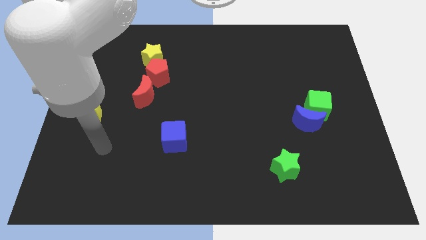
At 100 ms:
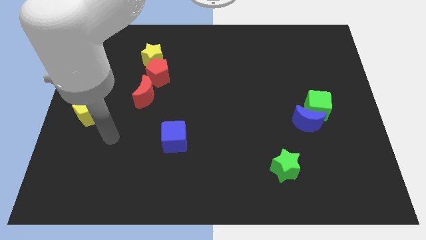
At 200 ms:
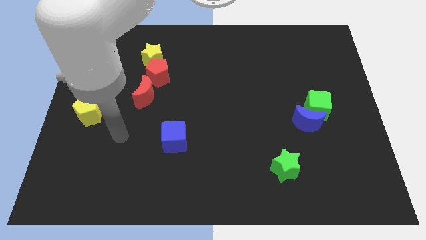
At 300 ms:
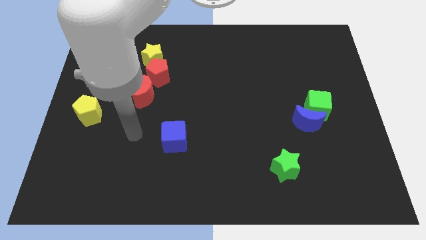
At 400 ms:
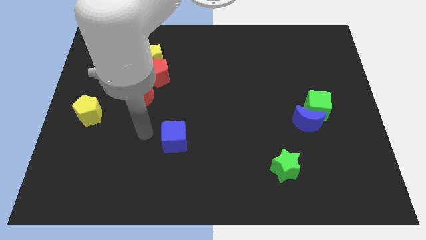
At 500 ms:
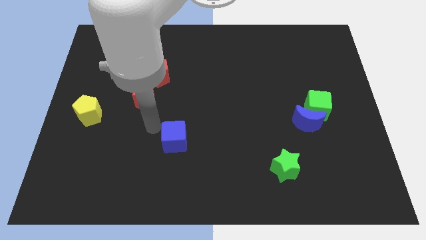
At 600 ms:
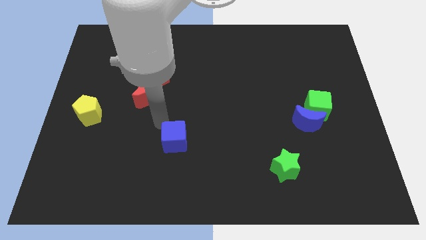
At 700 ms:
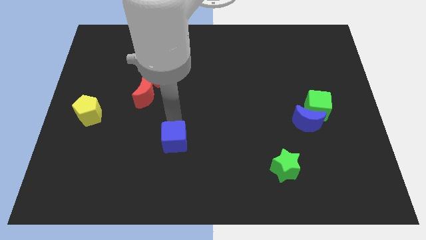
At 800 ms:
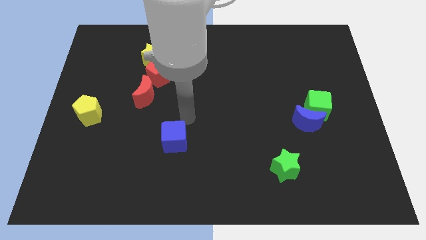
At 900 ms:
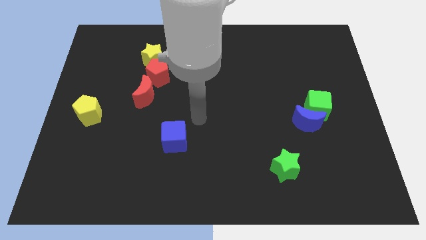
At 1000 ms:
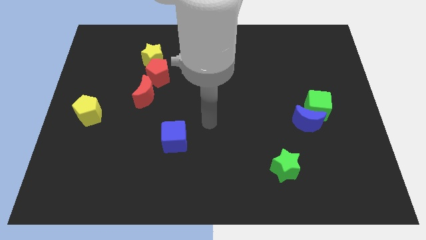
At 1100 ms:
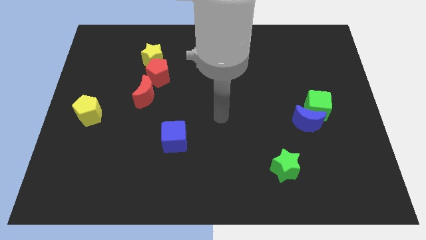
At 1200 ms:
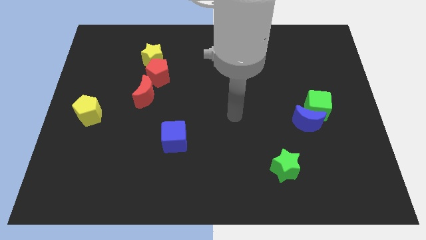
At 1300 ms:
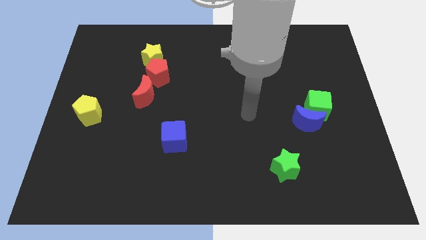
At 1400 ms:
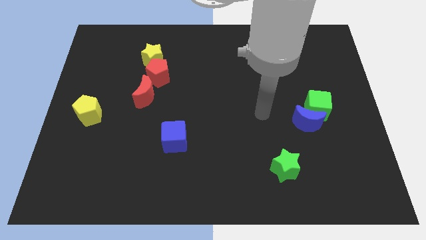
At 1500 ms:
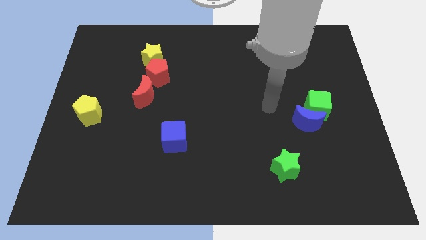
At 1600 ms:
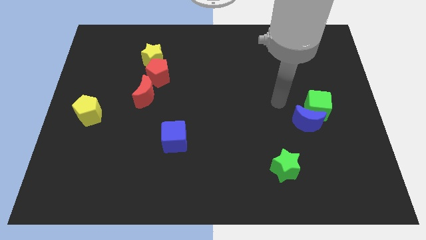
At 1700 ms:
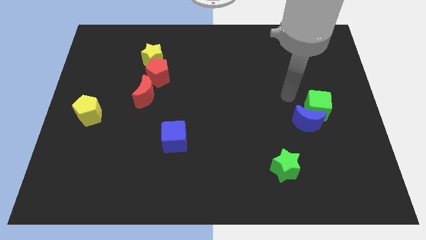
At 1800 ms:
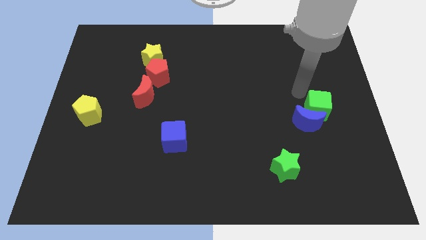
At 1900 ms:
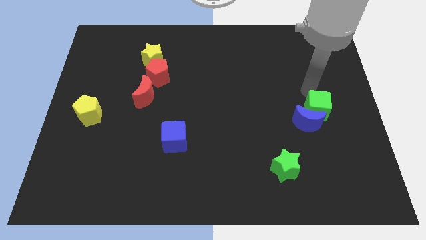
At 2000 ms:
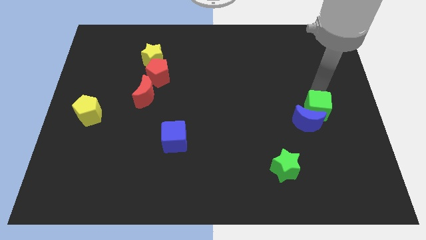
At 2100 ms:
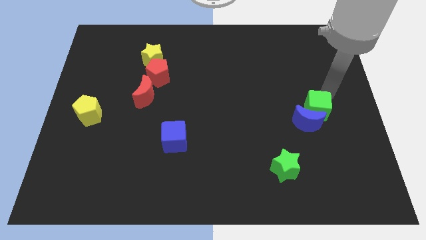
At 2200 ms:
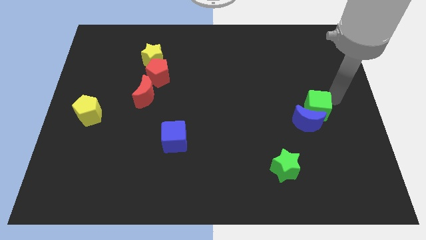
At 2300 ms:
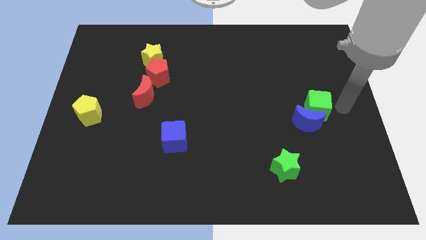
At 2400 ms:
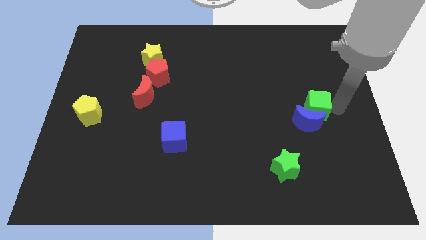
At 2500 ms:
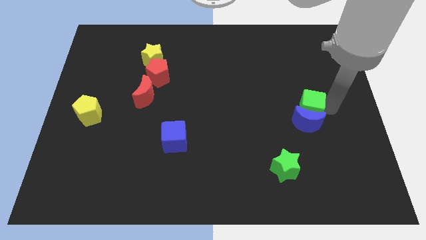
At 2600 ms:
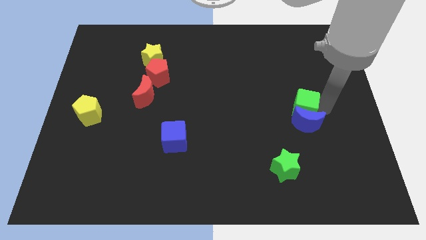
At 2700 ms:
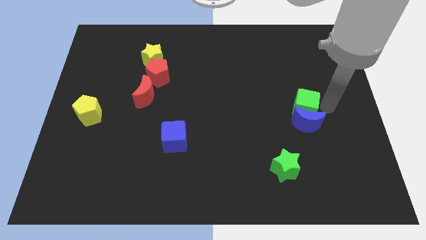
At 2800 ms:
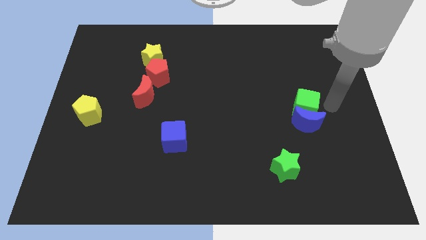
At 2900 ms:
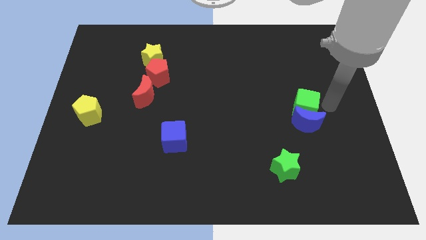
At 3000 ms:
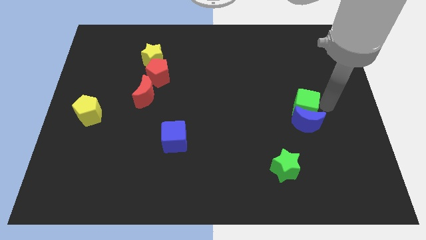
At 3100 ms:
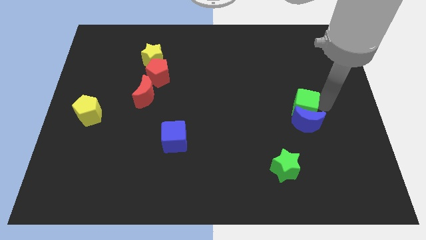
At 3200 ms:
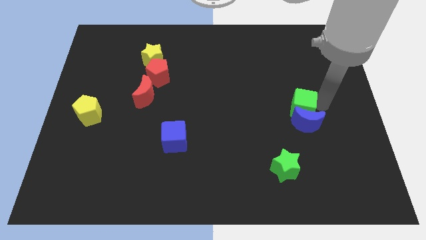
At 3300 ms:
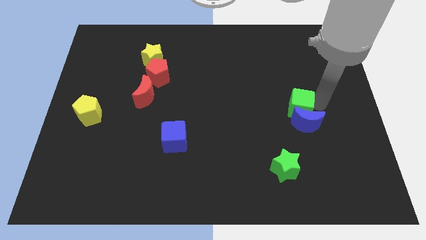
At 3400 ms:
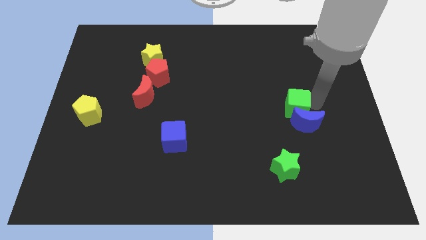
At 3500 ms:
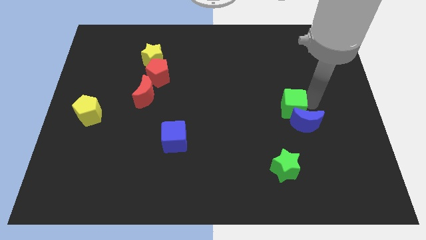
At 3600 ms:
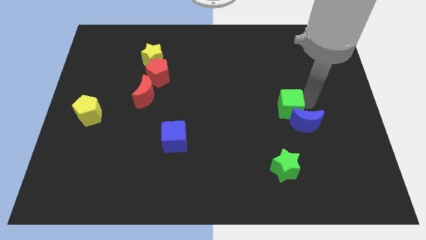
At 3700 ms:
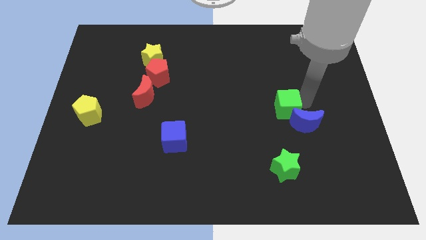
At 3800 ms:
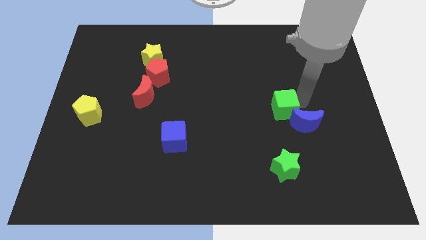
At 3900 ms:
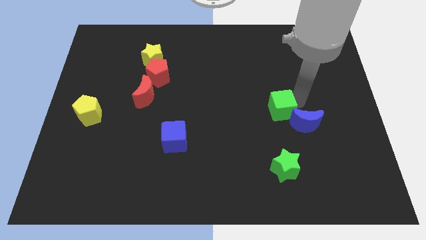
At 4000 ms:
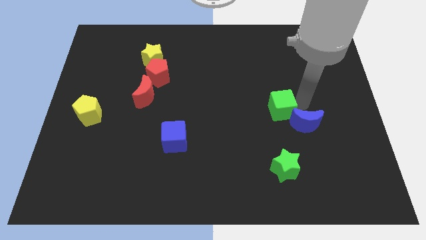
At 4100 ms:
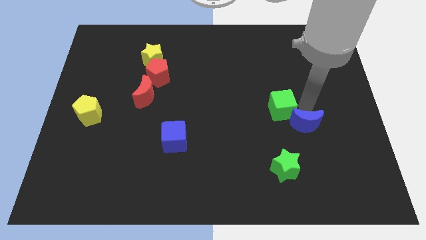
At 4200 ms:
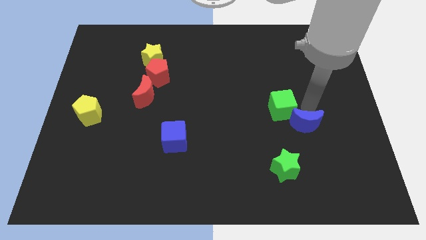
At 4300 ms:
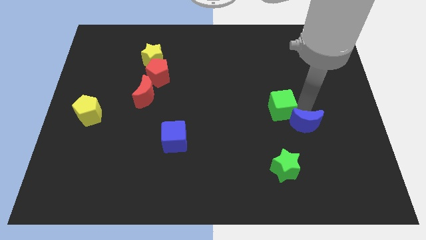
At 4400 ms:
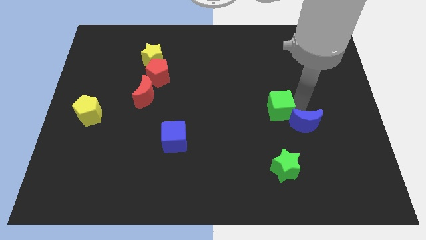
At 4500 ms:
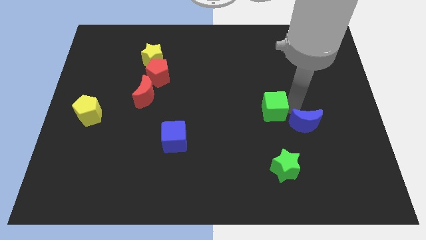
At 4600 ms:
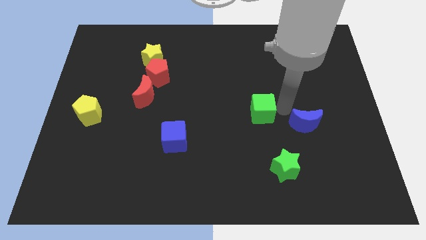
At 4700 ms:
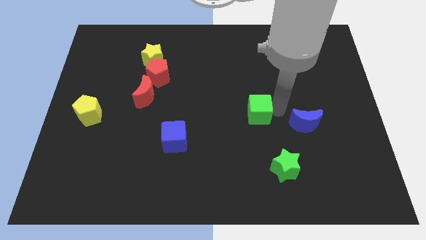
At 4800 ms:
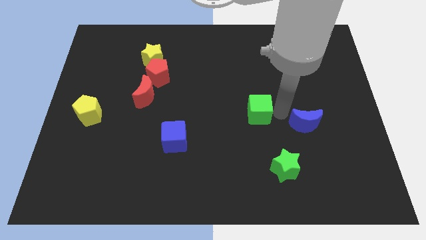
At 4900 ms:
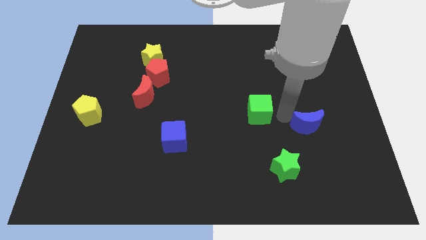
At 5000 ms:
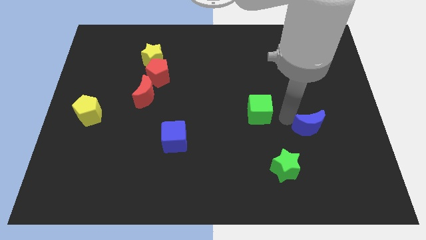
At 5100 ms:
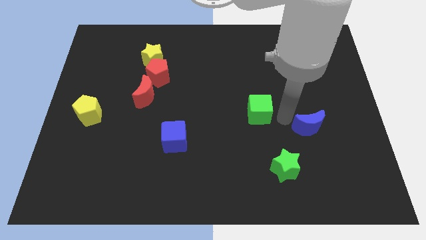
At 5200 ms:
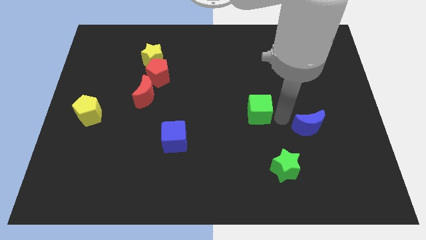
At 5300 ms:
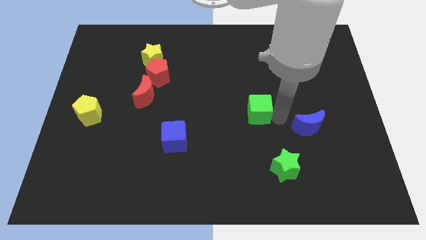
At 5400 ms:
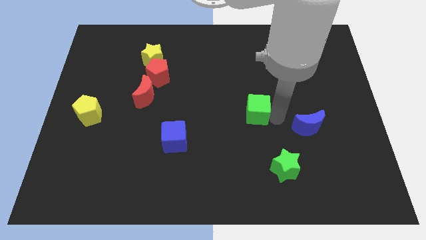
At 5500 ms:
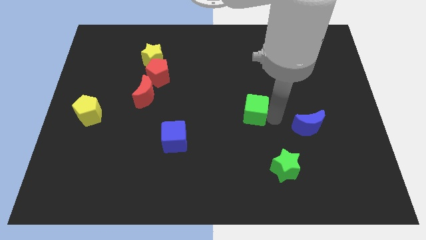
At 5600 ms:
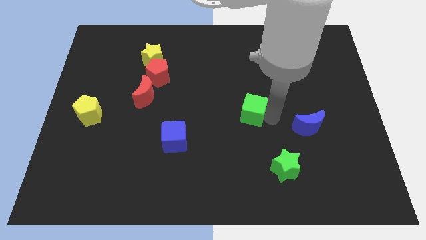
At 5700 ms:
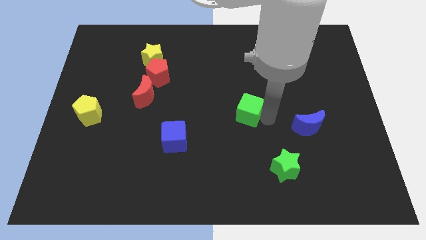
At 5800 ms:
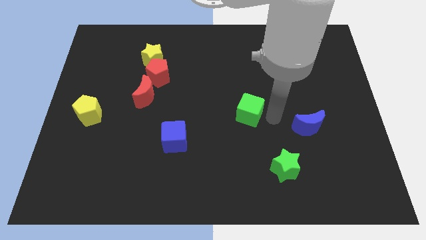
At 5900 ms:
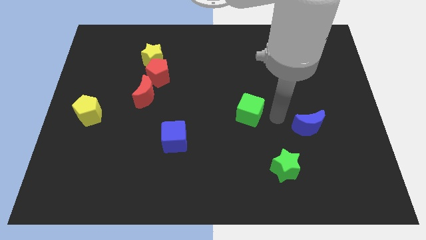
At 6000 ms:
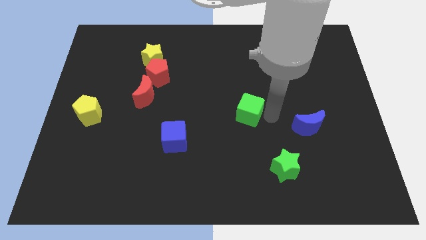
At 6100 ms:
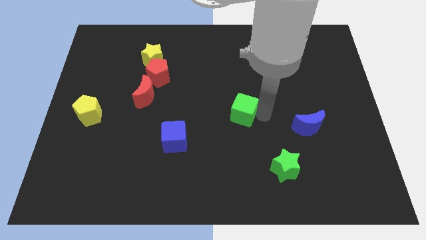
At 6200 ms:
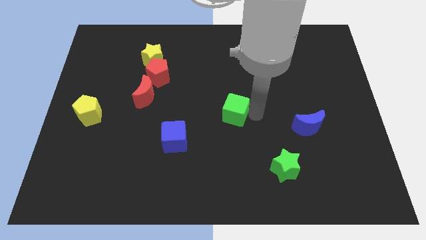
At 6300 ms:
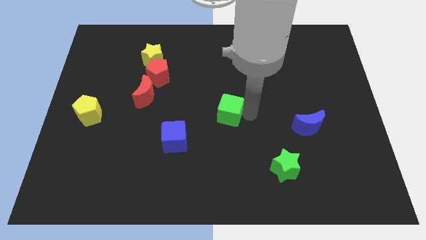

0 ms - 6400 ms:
move the green cube to the left

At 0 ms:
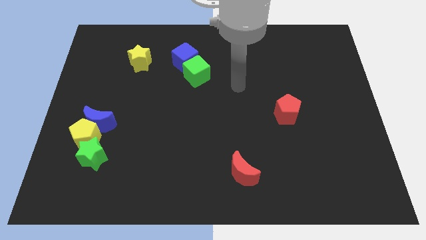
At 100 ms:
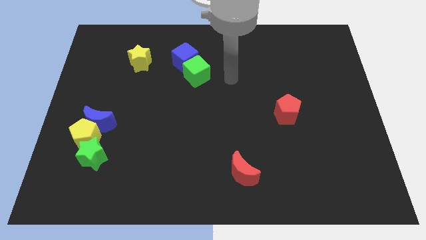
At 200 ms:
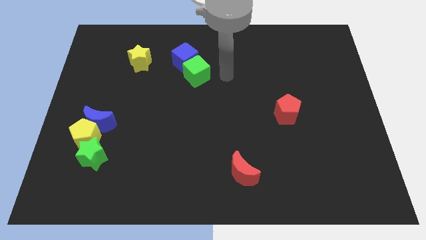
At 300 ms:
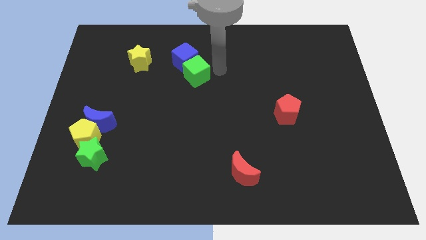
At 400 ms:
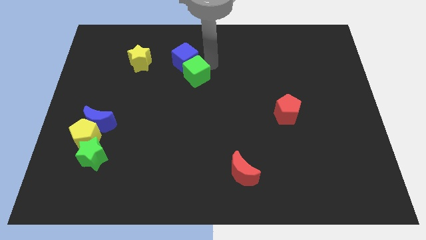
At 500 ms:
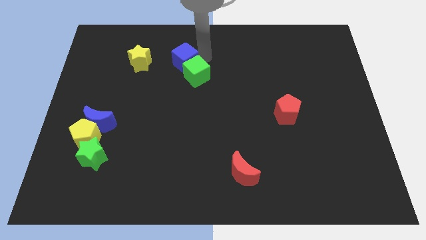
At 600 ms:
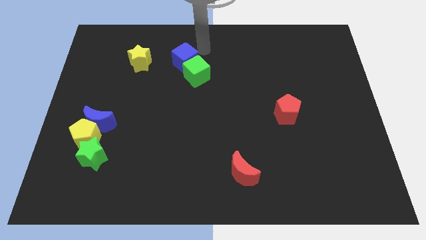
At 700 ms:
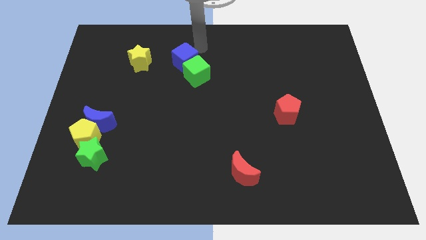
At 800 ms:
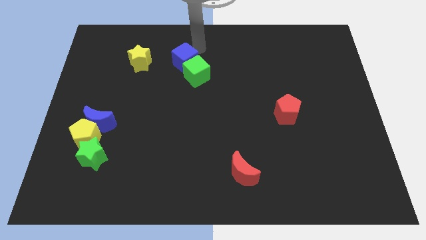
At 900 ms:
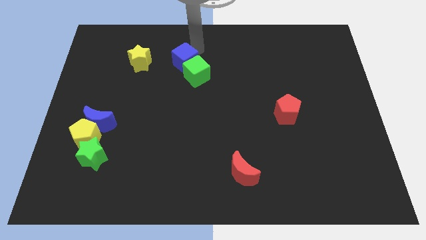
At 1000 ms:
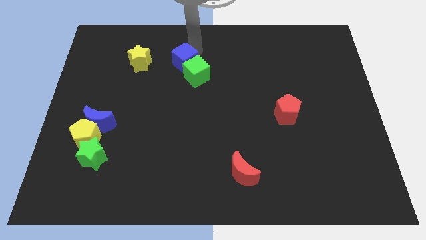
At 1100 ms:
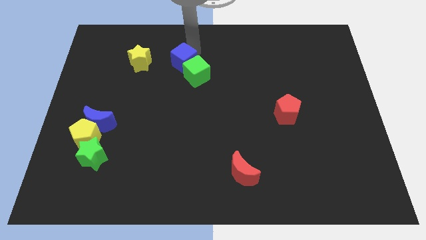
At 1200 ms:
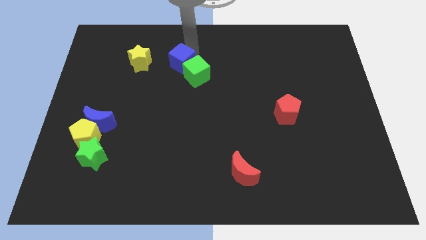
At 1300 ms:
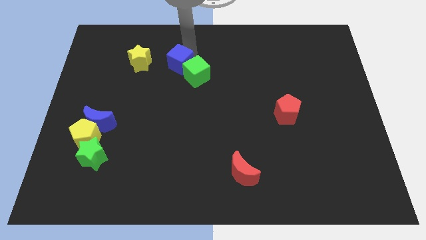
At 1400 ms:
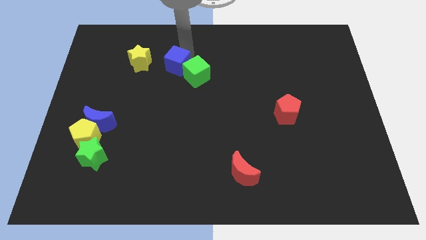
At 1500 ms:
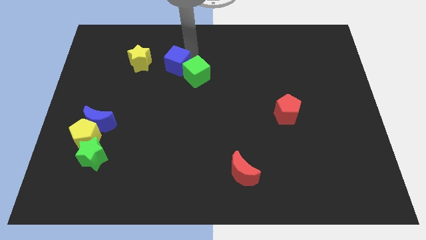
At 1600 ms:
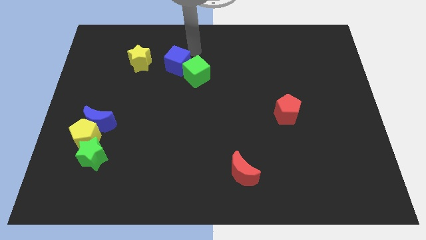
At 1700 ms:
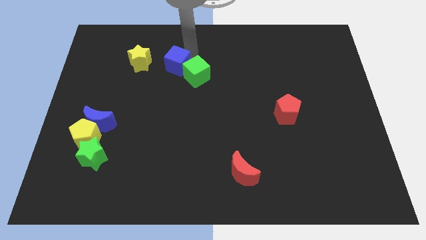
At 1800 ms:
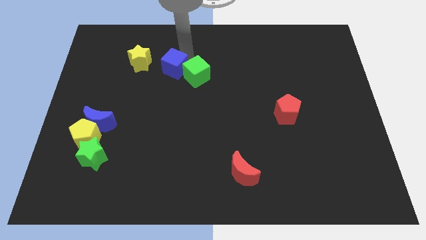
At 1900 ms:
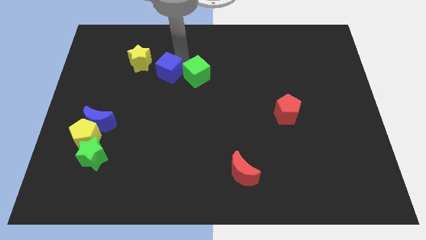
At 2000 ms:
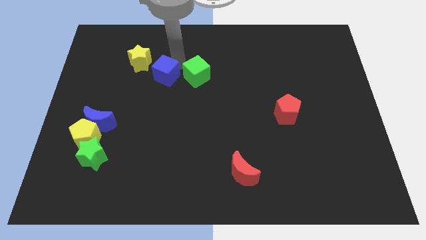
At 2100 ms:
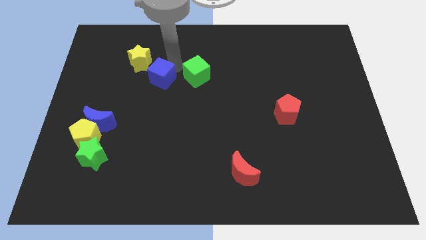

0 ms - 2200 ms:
move the blue cube slightly downwards and left

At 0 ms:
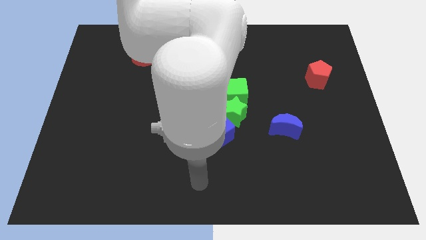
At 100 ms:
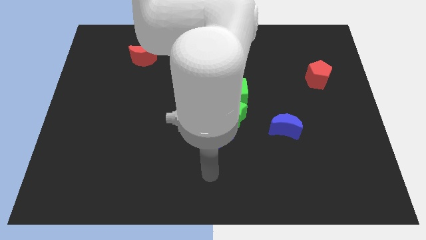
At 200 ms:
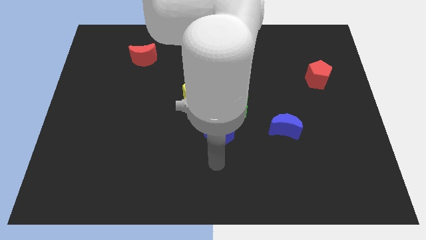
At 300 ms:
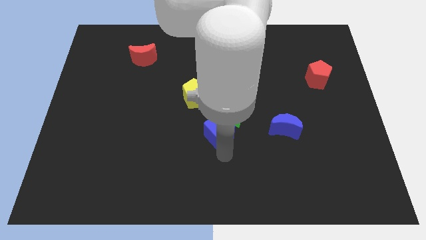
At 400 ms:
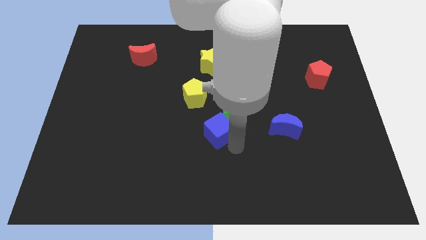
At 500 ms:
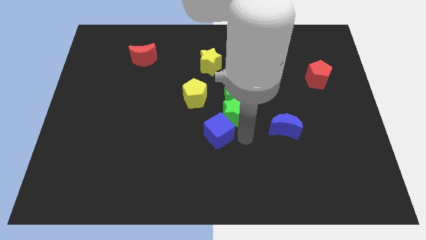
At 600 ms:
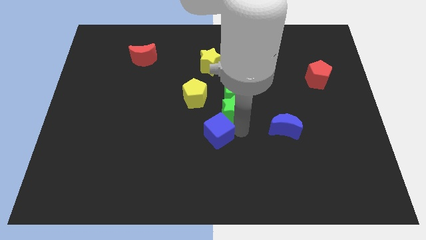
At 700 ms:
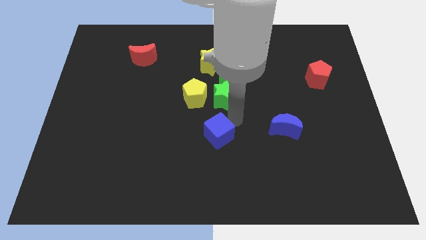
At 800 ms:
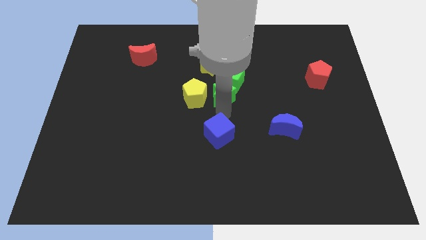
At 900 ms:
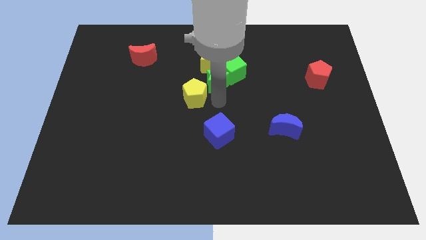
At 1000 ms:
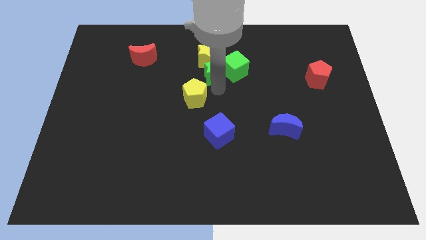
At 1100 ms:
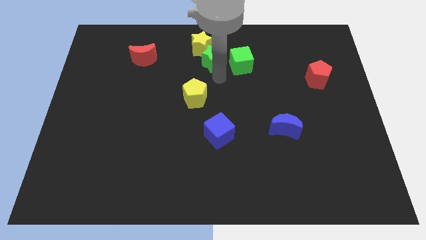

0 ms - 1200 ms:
move the green cube a bit up and then to the right
